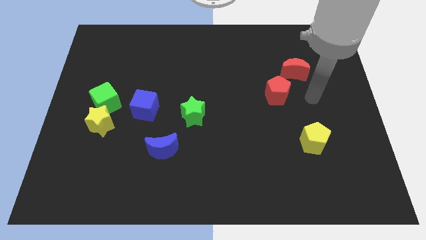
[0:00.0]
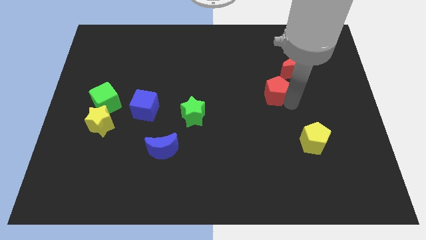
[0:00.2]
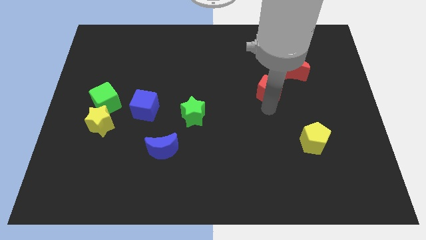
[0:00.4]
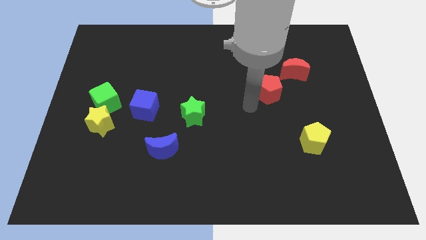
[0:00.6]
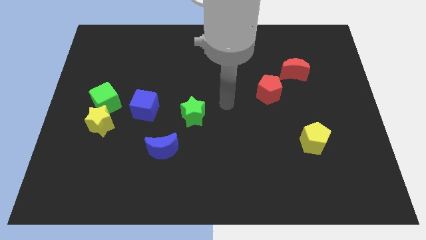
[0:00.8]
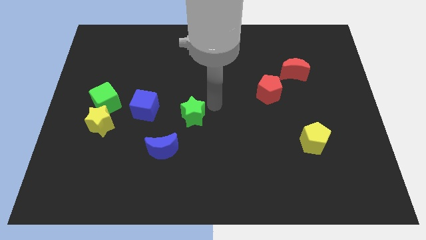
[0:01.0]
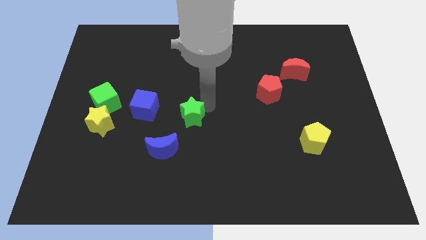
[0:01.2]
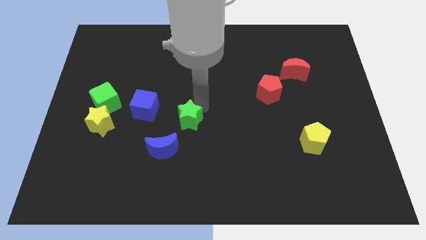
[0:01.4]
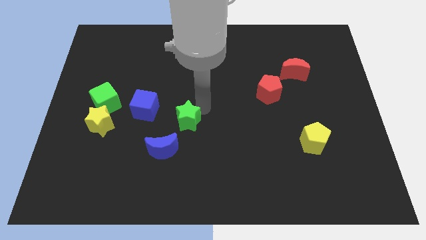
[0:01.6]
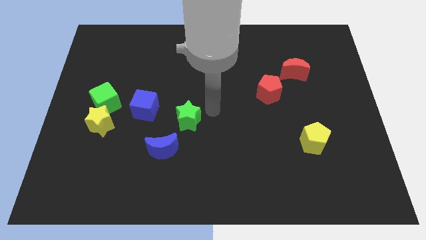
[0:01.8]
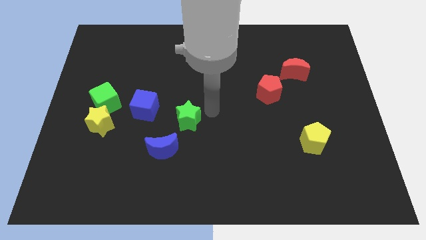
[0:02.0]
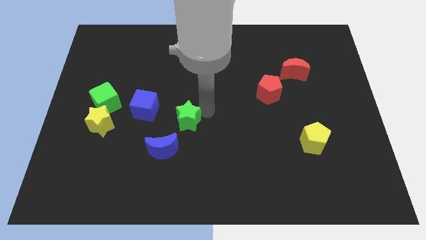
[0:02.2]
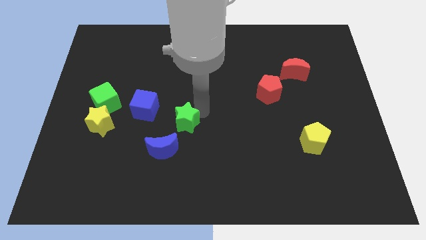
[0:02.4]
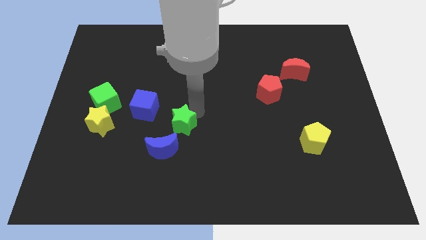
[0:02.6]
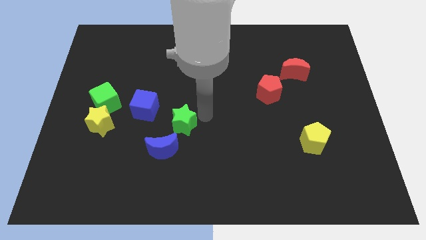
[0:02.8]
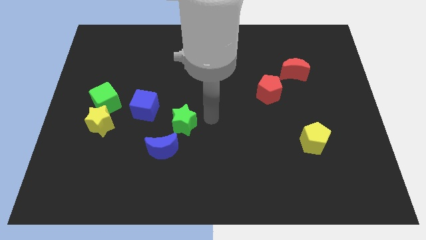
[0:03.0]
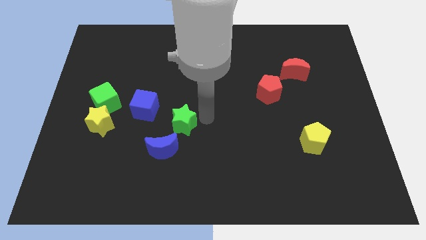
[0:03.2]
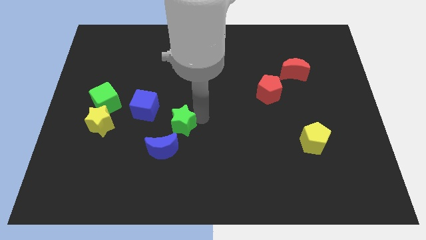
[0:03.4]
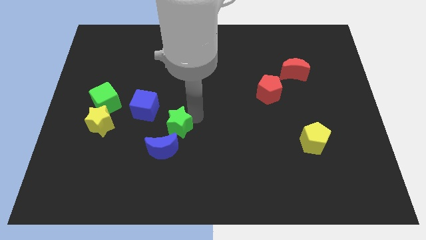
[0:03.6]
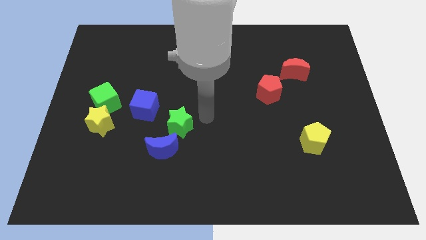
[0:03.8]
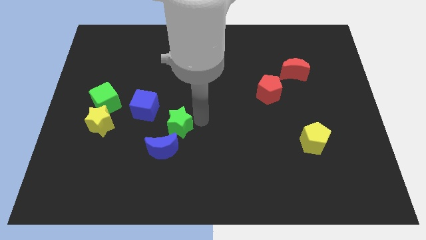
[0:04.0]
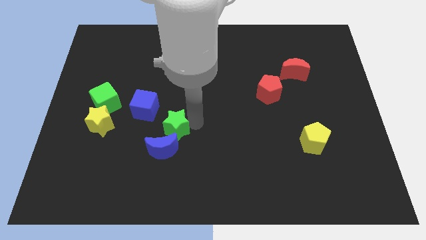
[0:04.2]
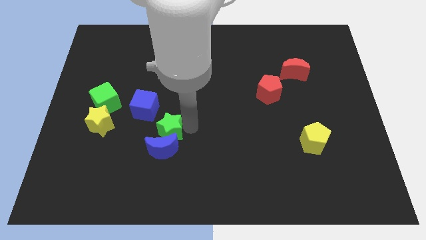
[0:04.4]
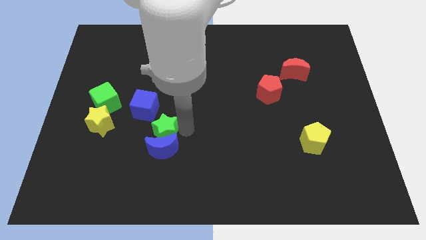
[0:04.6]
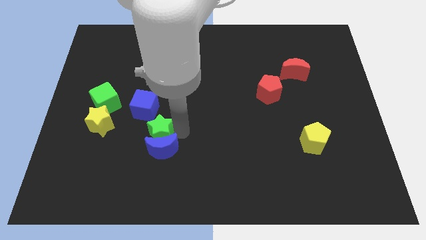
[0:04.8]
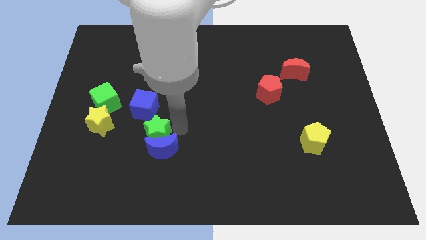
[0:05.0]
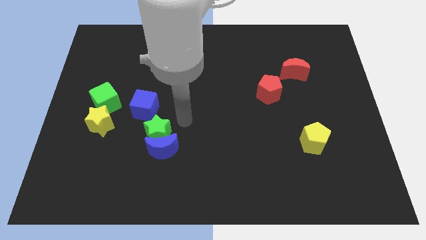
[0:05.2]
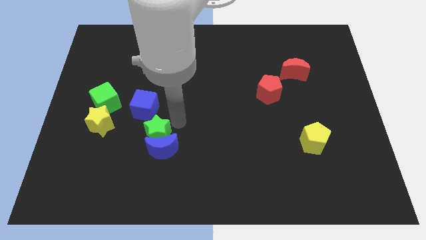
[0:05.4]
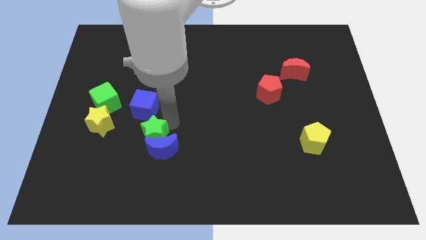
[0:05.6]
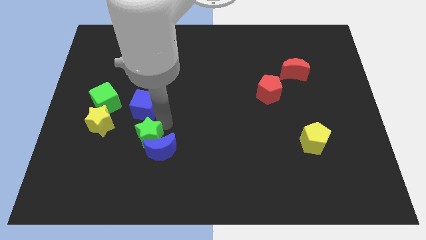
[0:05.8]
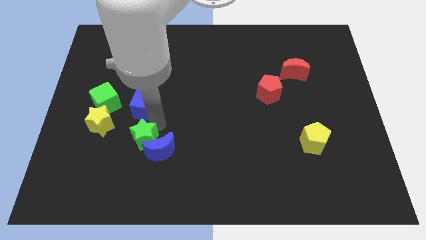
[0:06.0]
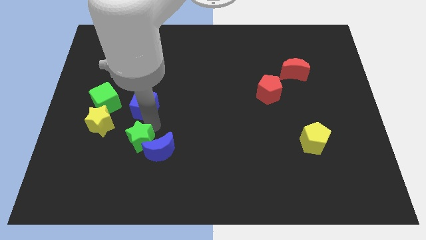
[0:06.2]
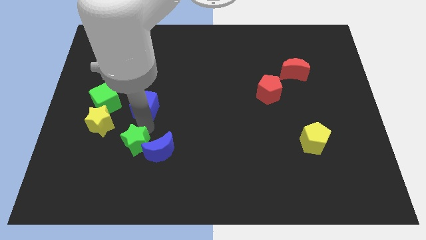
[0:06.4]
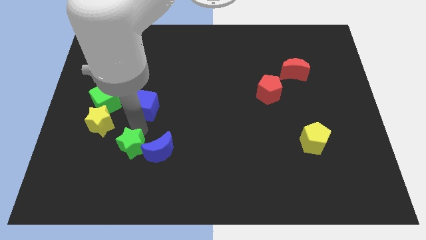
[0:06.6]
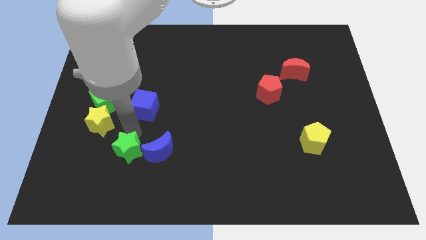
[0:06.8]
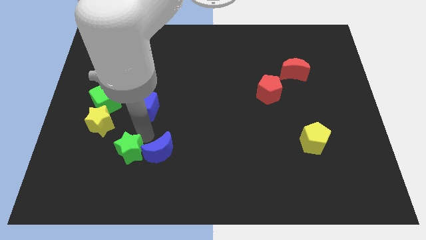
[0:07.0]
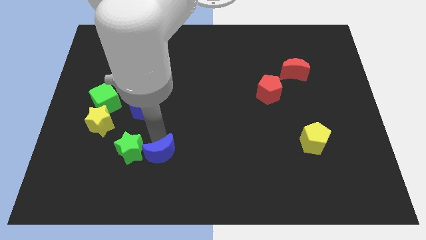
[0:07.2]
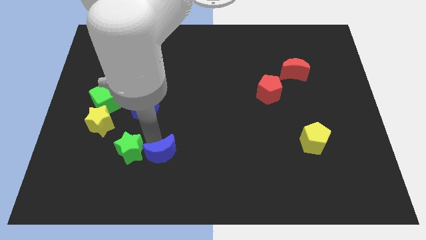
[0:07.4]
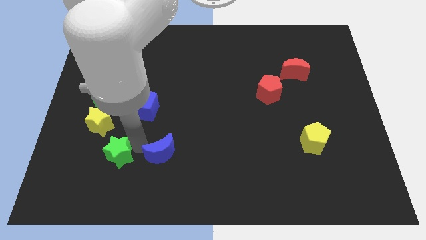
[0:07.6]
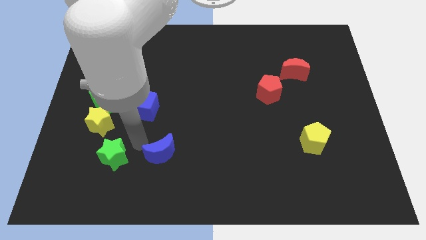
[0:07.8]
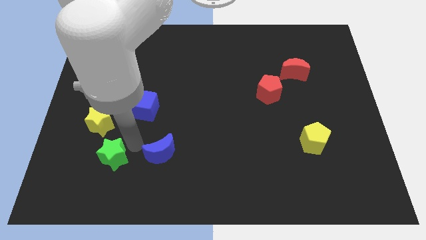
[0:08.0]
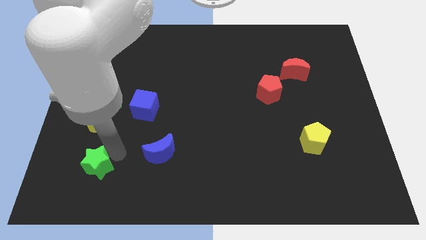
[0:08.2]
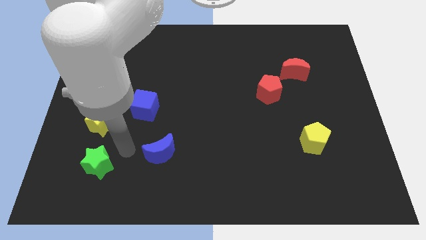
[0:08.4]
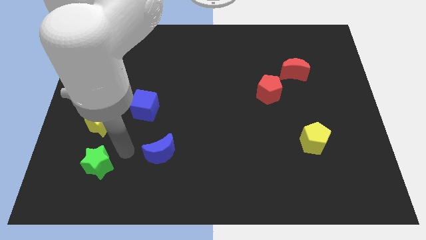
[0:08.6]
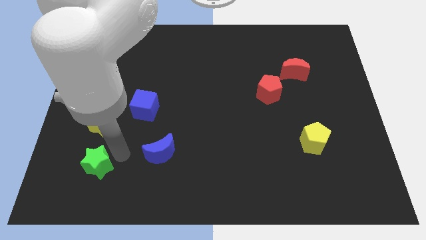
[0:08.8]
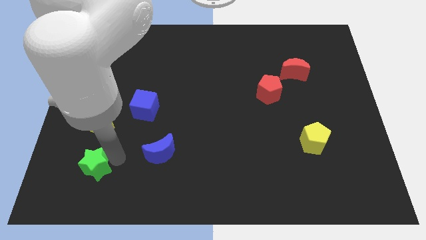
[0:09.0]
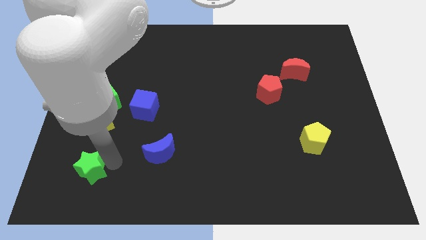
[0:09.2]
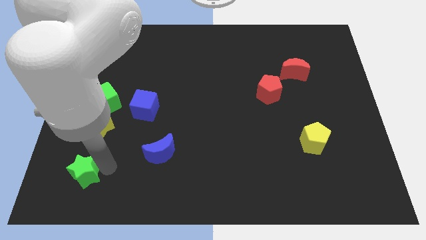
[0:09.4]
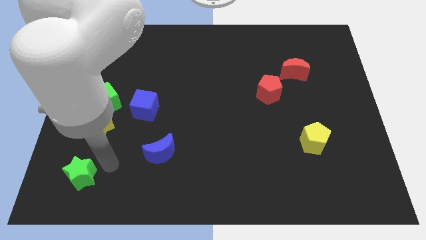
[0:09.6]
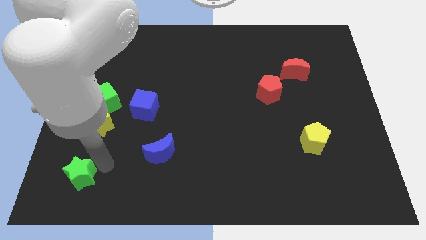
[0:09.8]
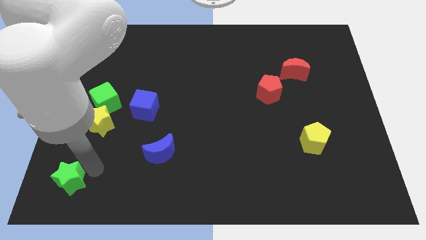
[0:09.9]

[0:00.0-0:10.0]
move the green star to the lower left corner
